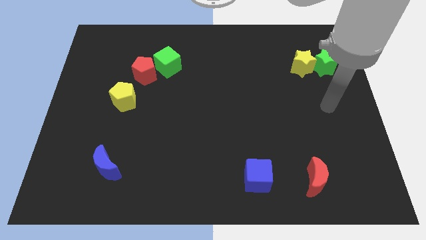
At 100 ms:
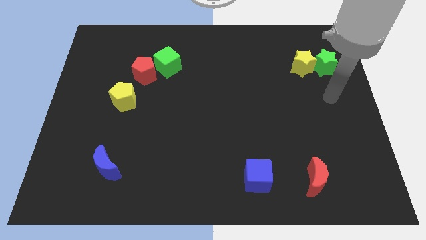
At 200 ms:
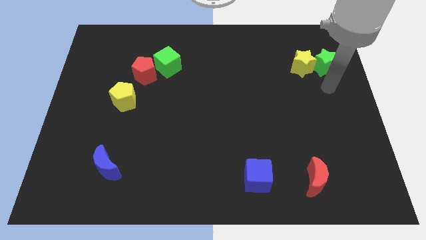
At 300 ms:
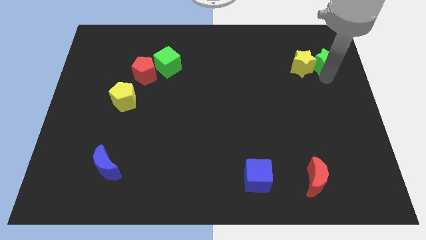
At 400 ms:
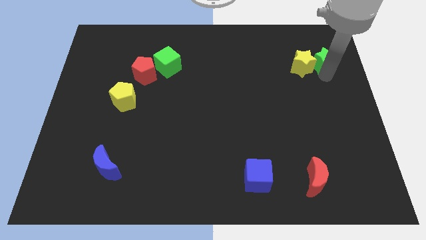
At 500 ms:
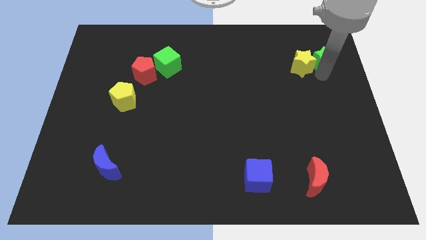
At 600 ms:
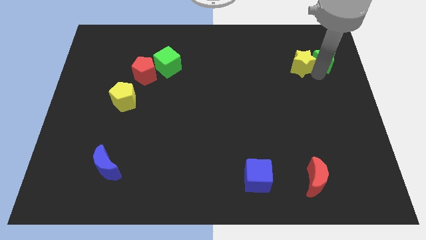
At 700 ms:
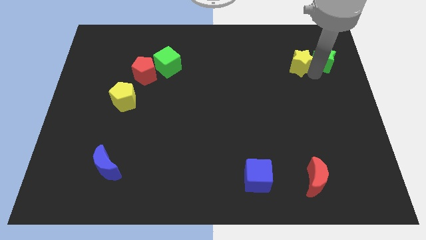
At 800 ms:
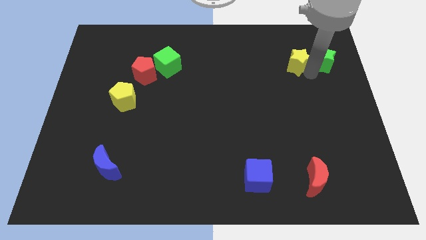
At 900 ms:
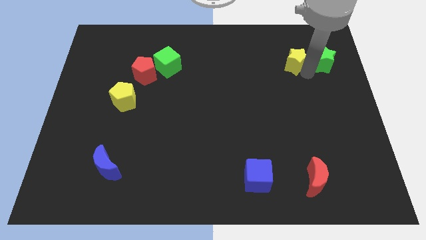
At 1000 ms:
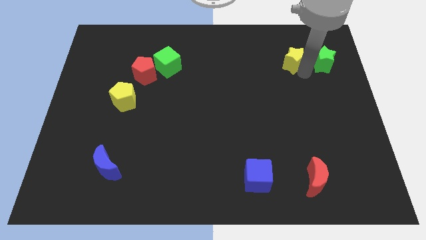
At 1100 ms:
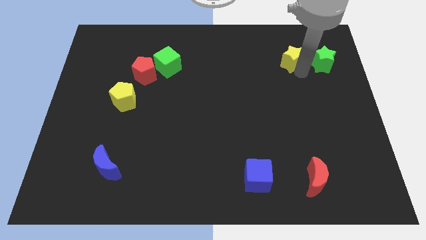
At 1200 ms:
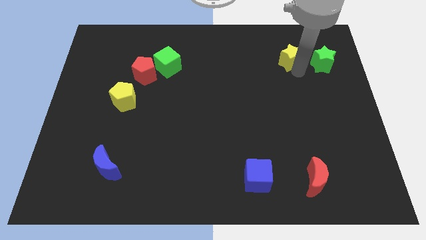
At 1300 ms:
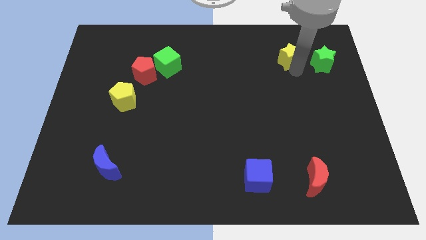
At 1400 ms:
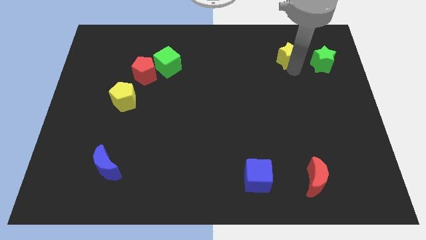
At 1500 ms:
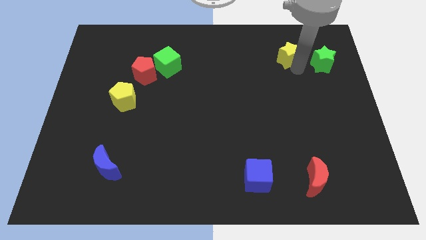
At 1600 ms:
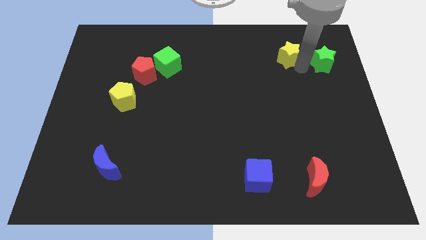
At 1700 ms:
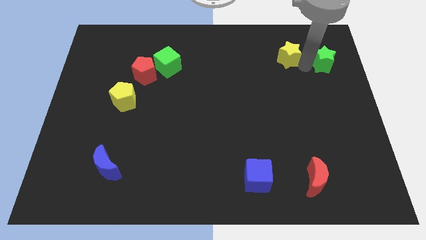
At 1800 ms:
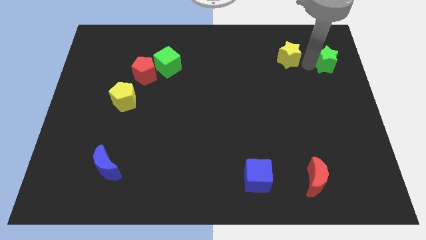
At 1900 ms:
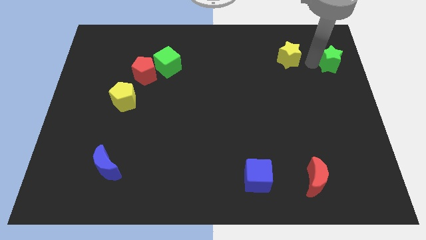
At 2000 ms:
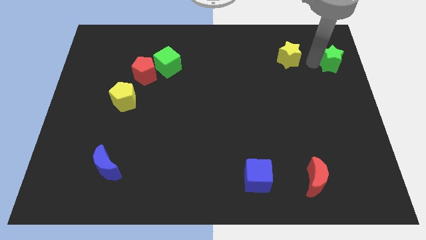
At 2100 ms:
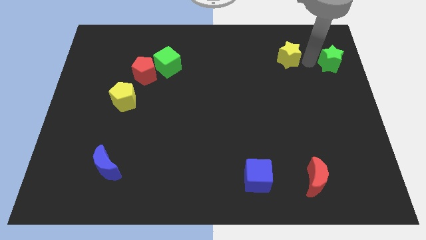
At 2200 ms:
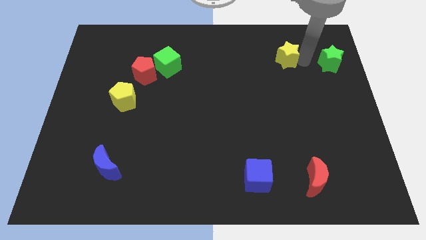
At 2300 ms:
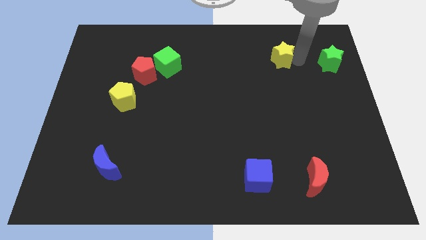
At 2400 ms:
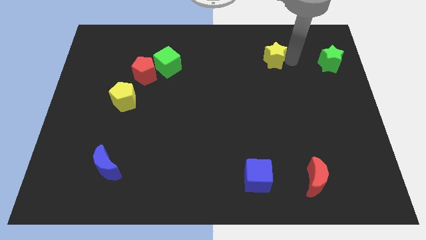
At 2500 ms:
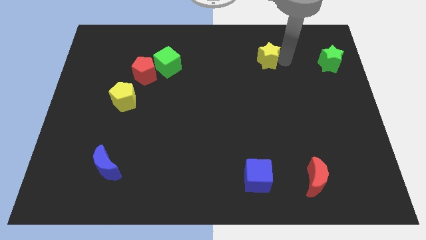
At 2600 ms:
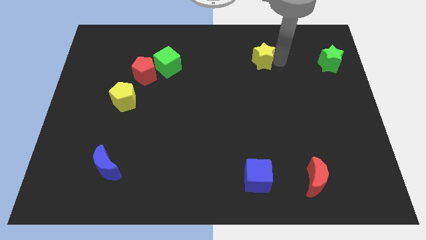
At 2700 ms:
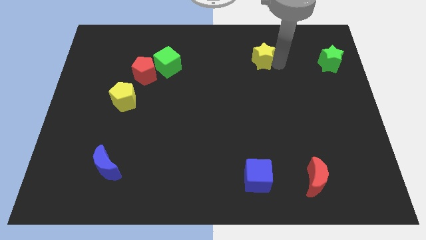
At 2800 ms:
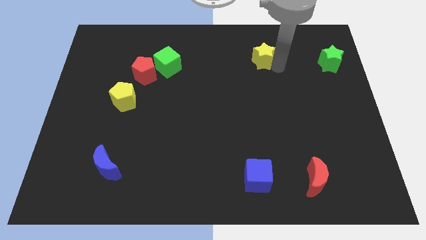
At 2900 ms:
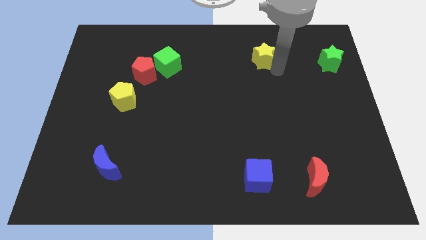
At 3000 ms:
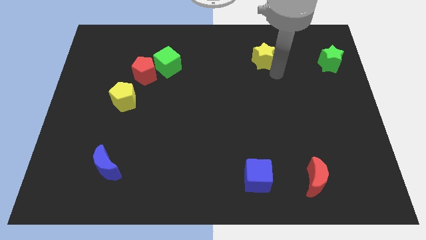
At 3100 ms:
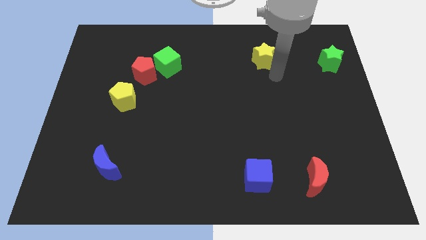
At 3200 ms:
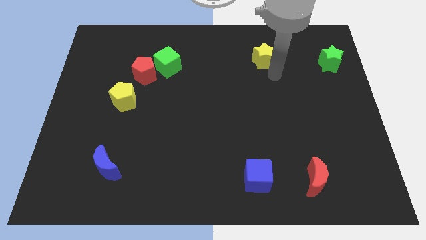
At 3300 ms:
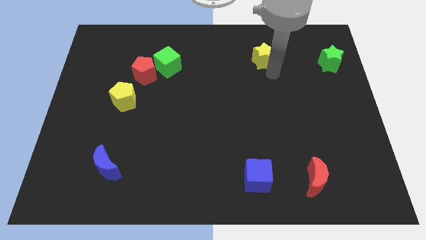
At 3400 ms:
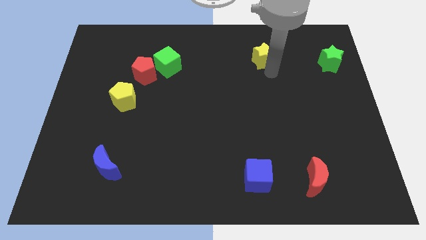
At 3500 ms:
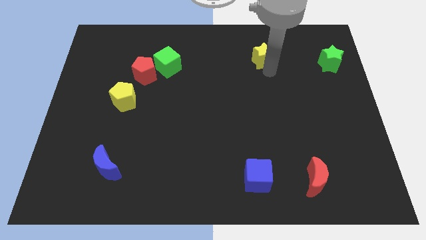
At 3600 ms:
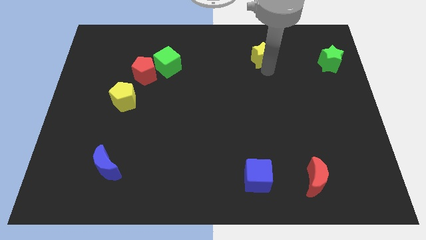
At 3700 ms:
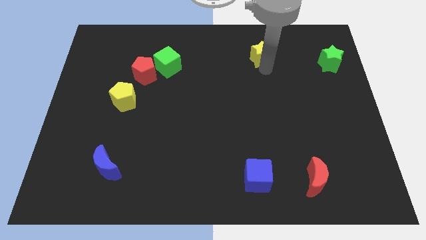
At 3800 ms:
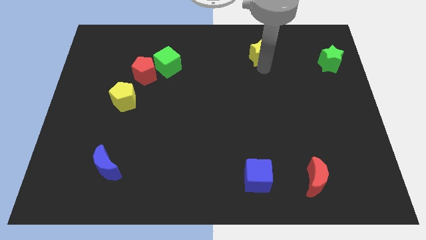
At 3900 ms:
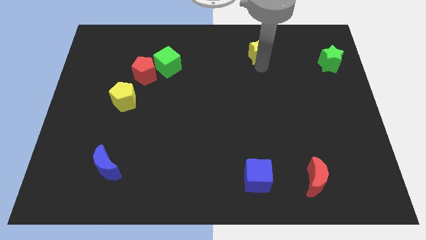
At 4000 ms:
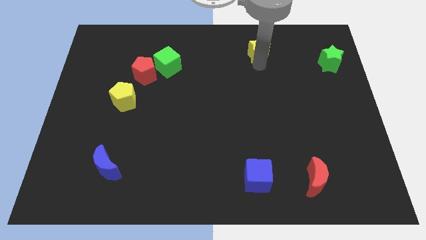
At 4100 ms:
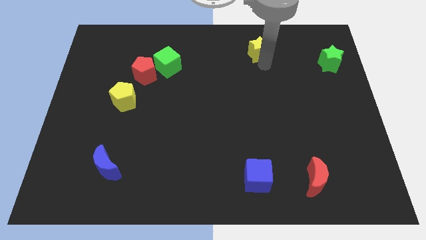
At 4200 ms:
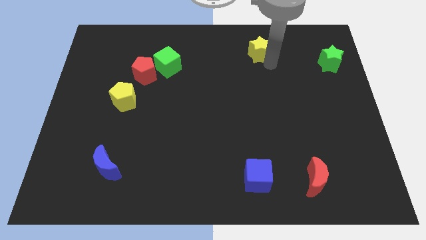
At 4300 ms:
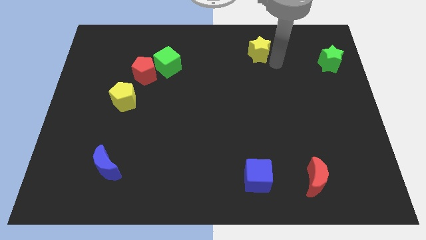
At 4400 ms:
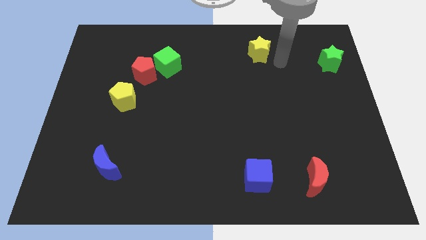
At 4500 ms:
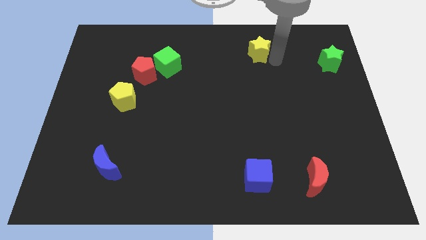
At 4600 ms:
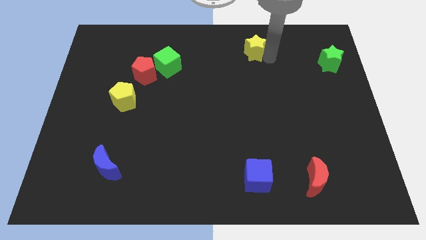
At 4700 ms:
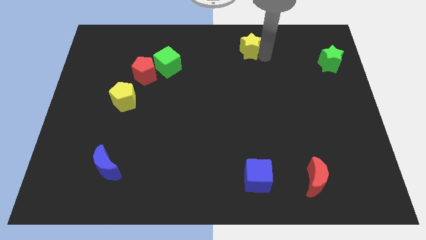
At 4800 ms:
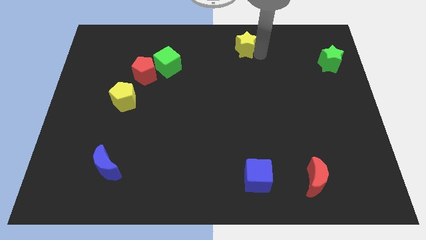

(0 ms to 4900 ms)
slide the yellow star to the towards your base

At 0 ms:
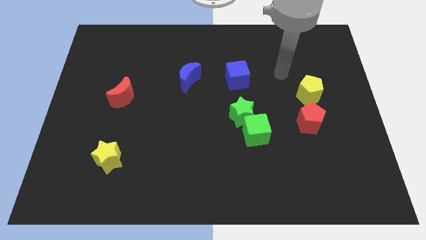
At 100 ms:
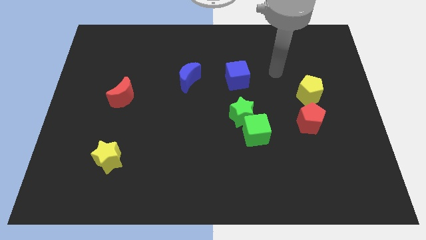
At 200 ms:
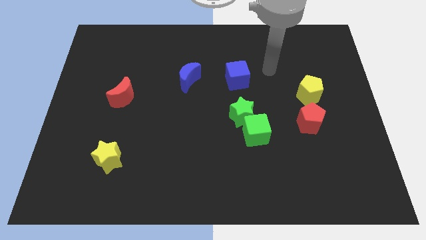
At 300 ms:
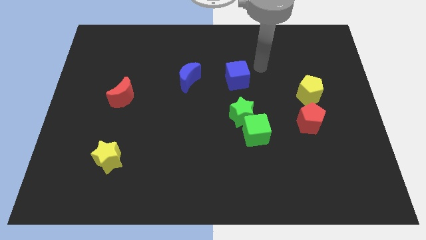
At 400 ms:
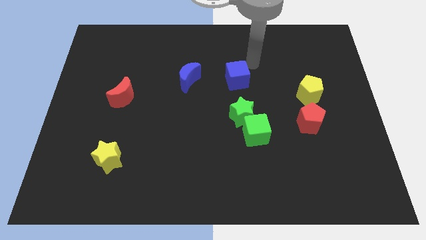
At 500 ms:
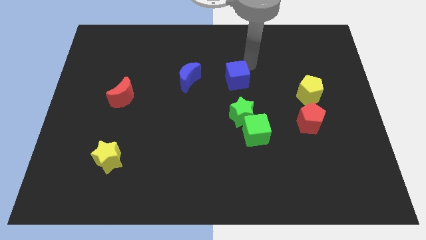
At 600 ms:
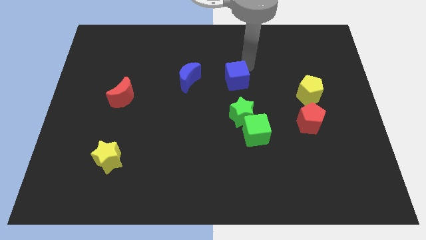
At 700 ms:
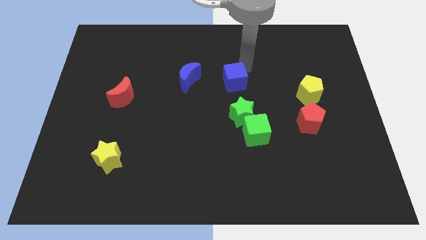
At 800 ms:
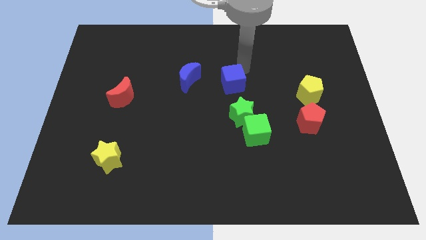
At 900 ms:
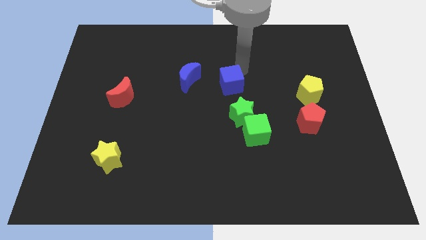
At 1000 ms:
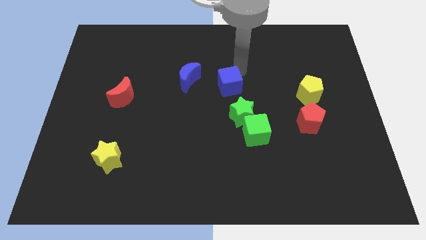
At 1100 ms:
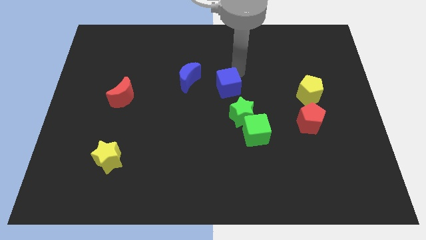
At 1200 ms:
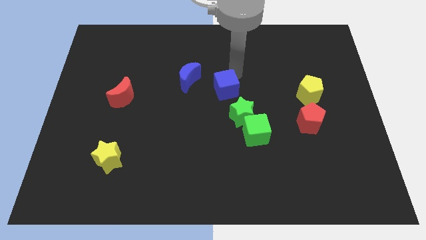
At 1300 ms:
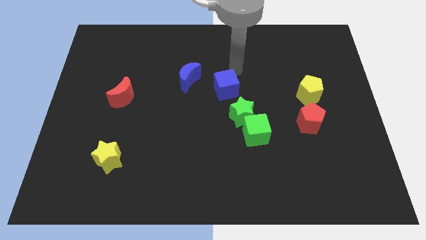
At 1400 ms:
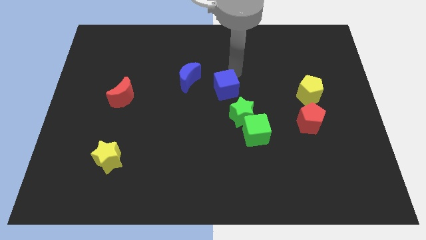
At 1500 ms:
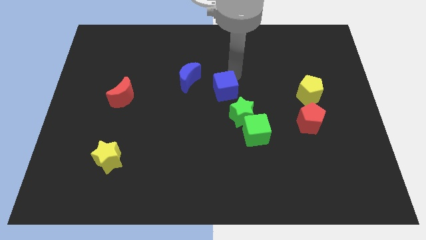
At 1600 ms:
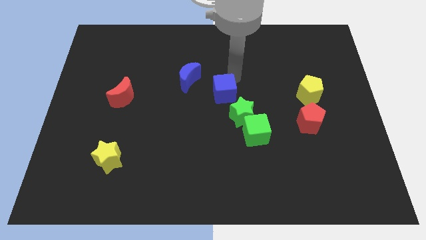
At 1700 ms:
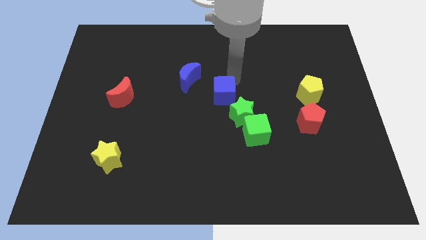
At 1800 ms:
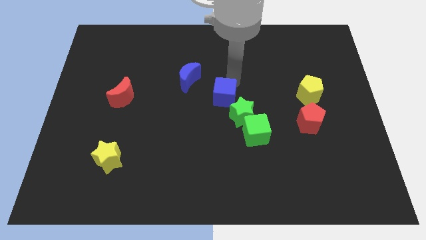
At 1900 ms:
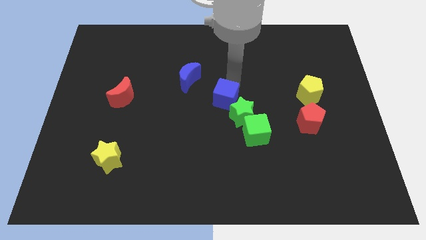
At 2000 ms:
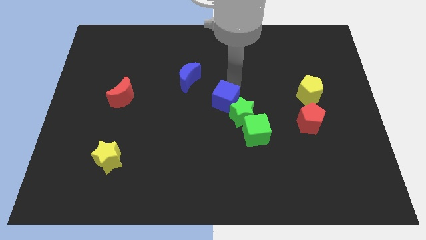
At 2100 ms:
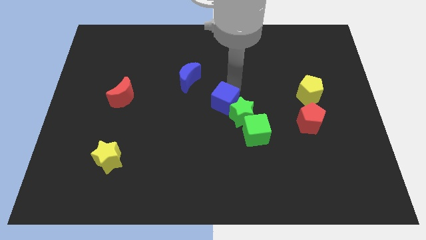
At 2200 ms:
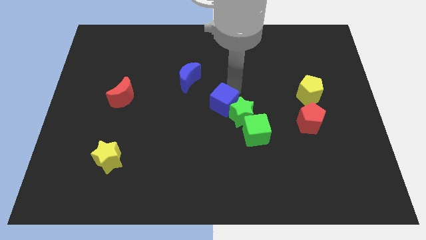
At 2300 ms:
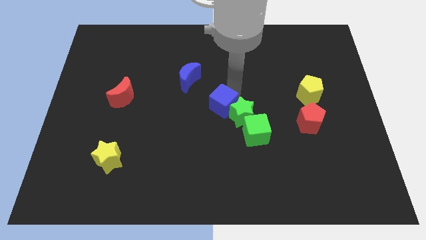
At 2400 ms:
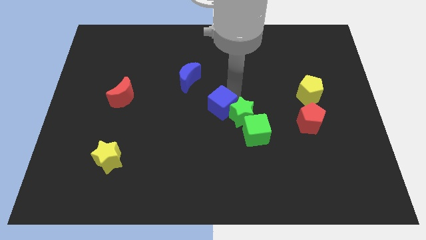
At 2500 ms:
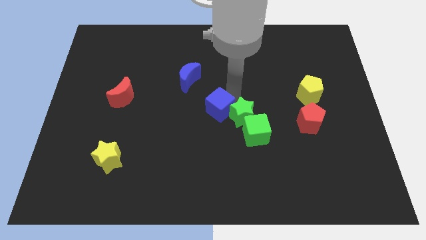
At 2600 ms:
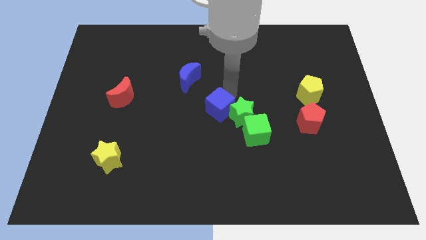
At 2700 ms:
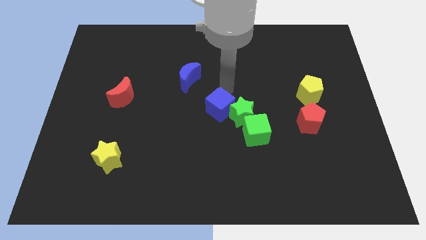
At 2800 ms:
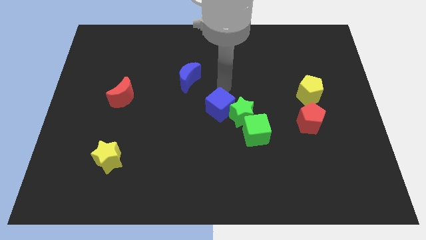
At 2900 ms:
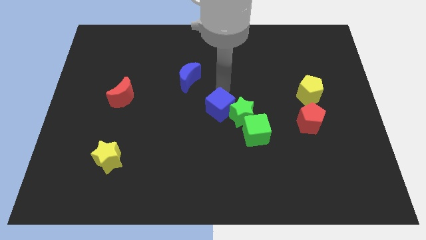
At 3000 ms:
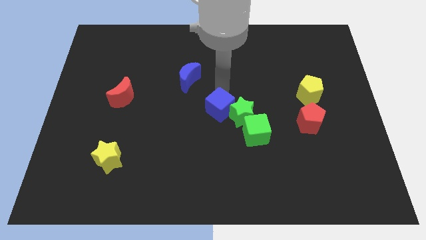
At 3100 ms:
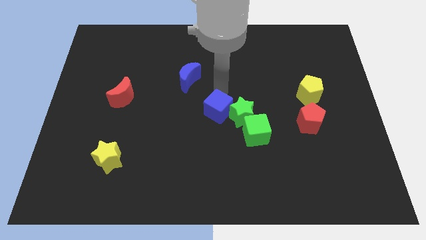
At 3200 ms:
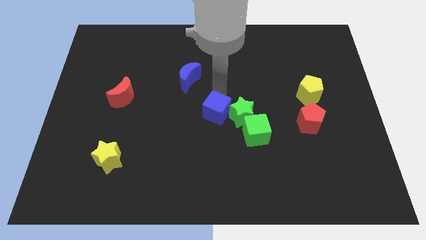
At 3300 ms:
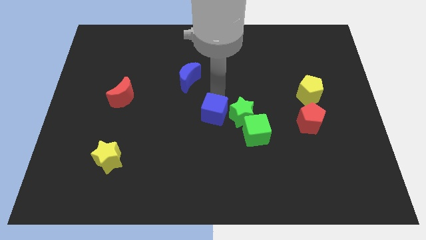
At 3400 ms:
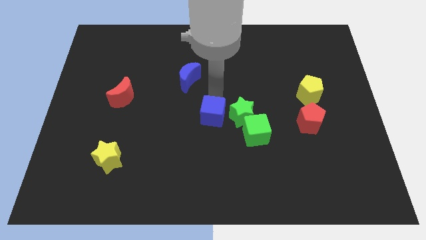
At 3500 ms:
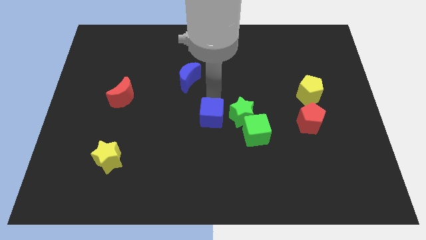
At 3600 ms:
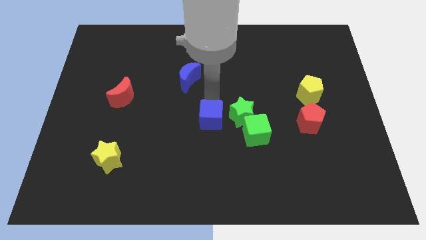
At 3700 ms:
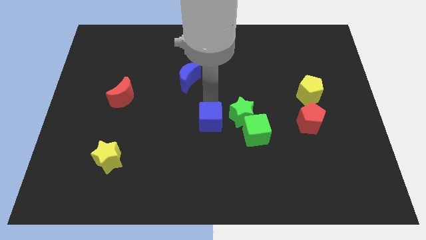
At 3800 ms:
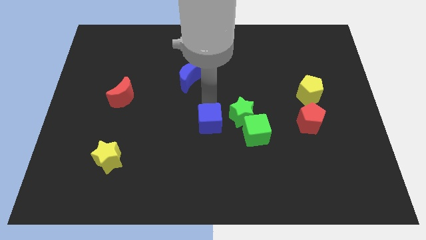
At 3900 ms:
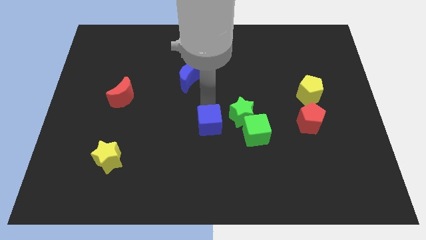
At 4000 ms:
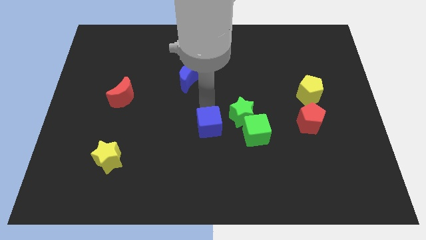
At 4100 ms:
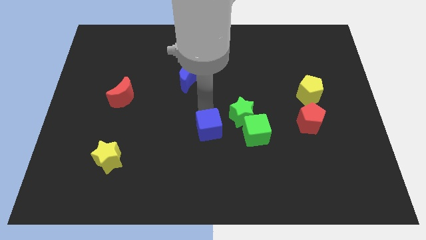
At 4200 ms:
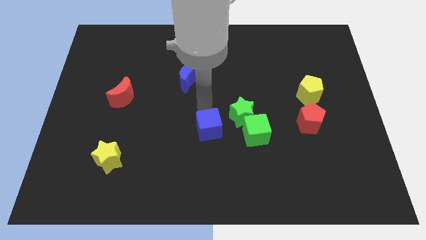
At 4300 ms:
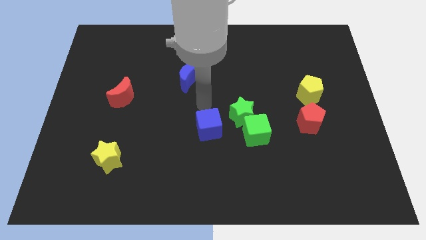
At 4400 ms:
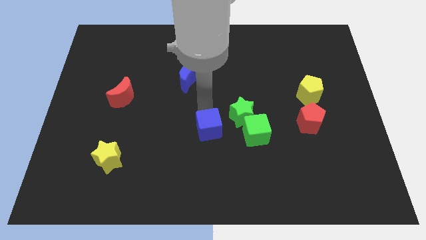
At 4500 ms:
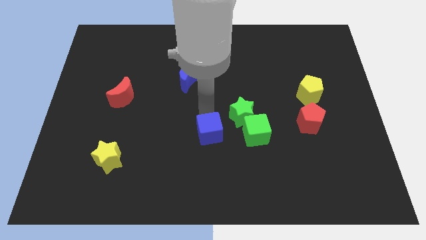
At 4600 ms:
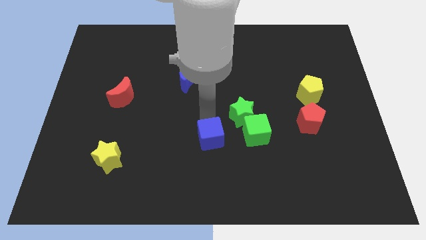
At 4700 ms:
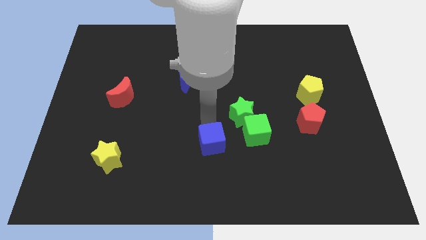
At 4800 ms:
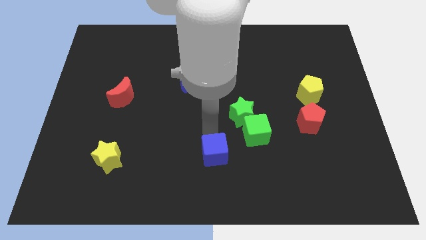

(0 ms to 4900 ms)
push the blue cube to the bottom side
